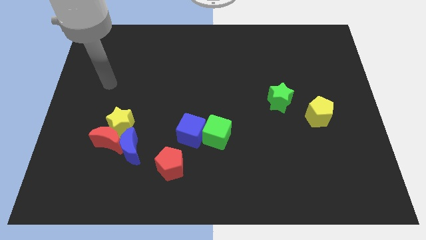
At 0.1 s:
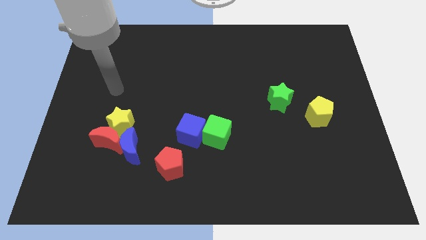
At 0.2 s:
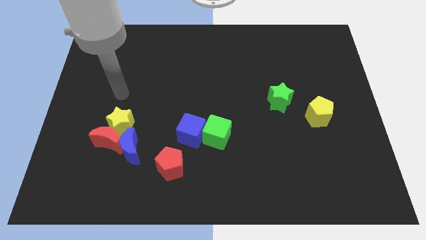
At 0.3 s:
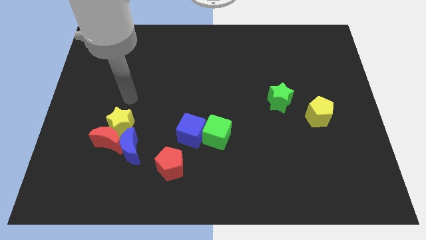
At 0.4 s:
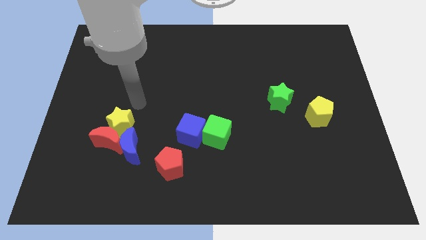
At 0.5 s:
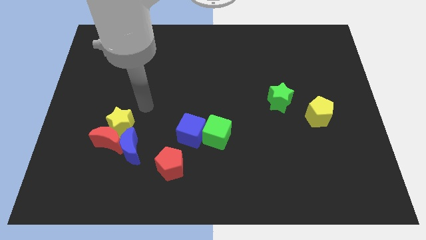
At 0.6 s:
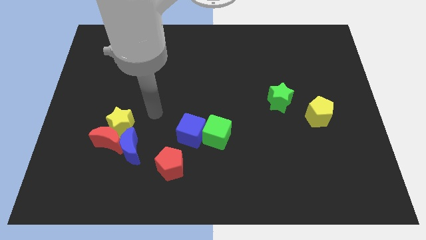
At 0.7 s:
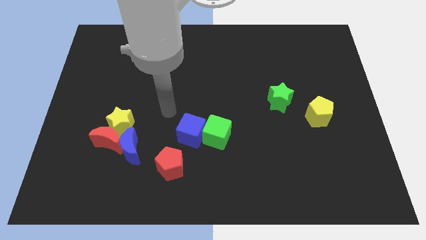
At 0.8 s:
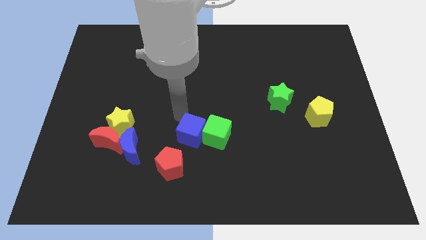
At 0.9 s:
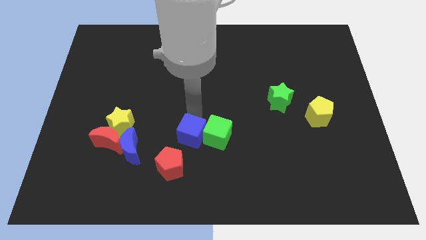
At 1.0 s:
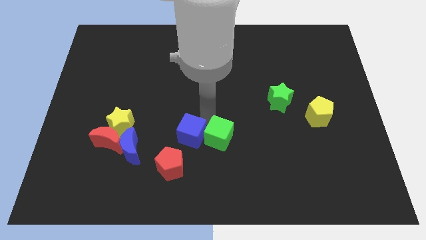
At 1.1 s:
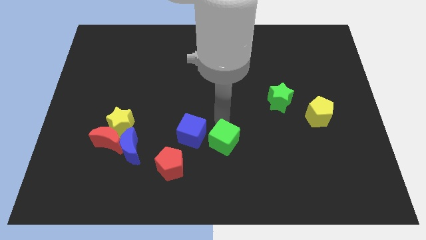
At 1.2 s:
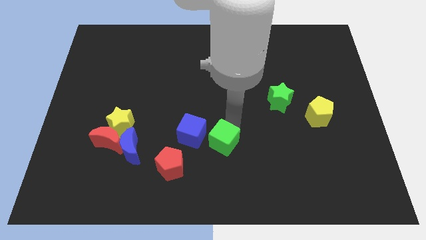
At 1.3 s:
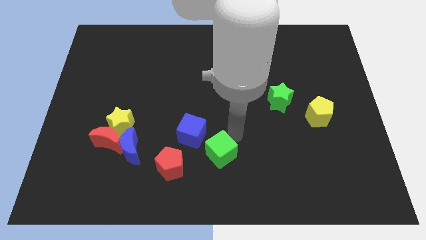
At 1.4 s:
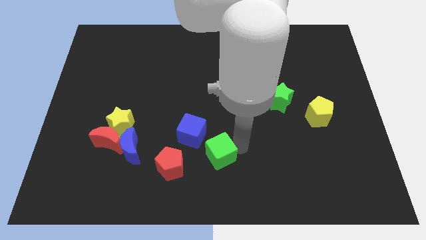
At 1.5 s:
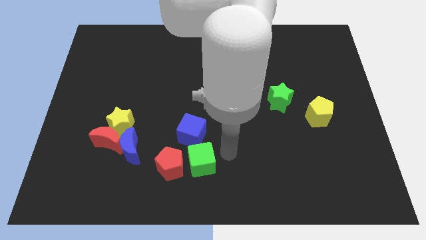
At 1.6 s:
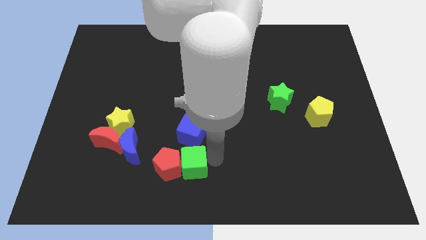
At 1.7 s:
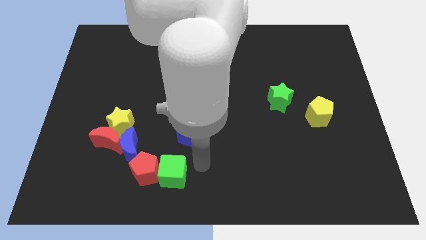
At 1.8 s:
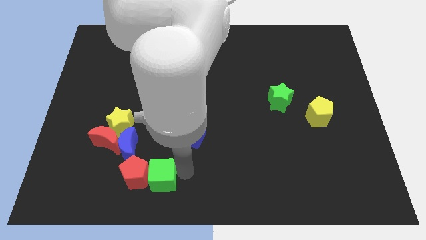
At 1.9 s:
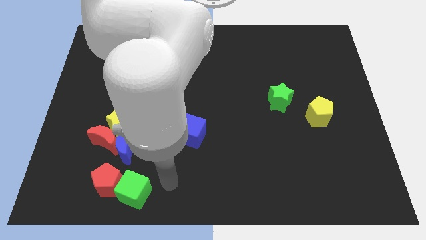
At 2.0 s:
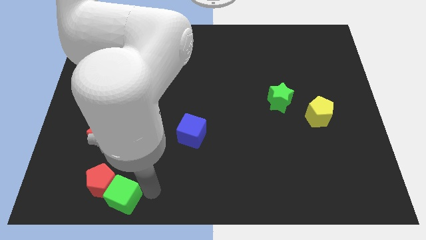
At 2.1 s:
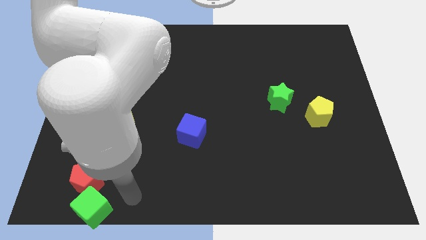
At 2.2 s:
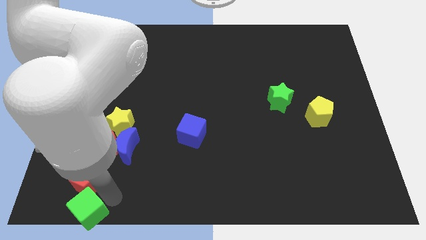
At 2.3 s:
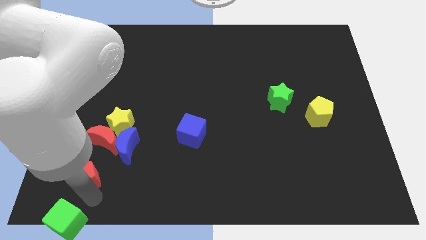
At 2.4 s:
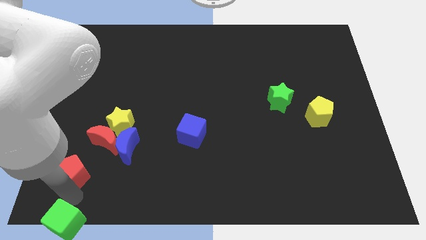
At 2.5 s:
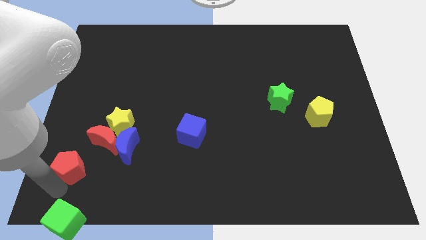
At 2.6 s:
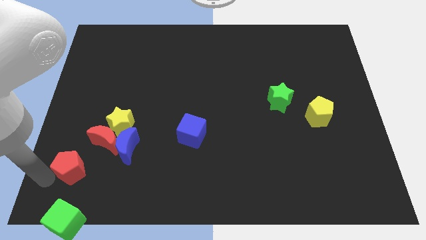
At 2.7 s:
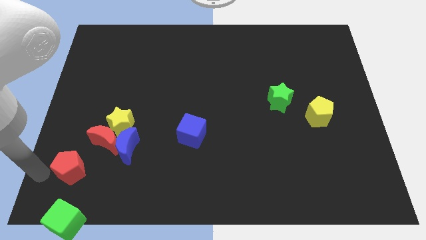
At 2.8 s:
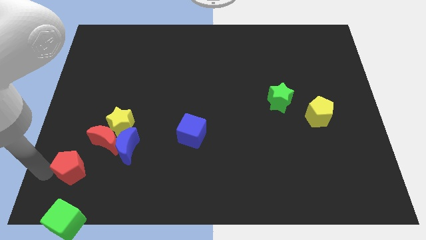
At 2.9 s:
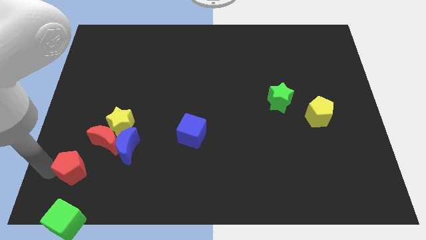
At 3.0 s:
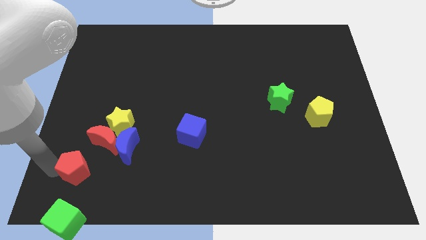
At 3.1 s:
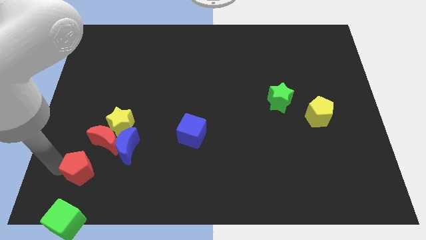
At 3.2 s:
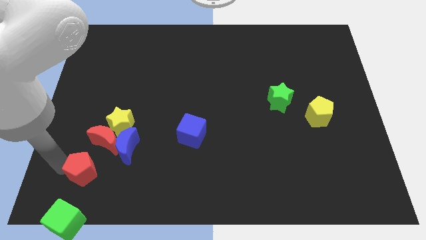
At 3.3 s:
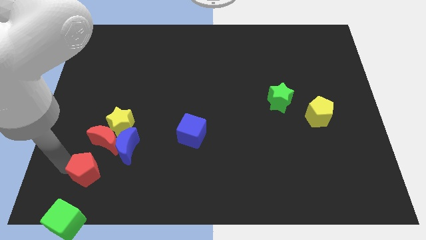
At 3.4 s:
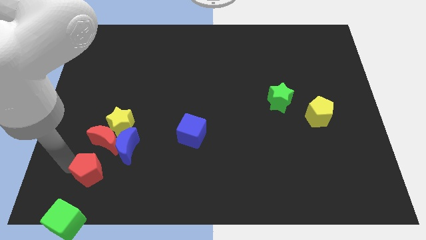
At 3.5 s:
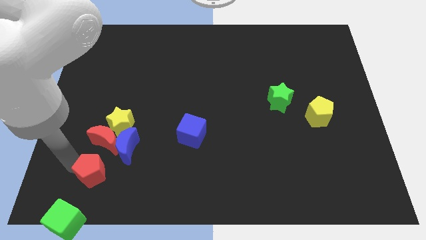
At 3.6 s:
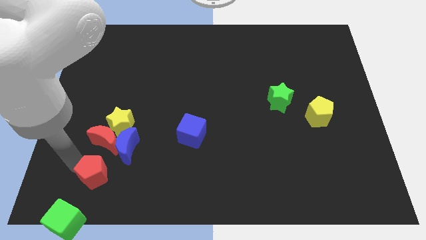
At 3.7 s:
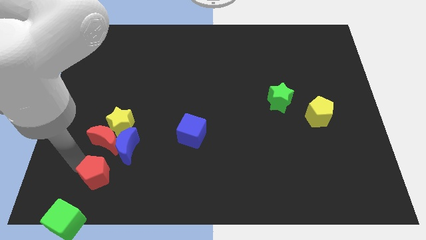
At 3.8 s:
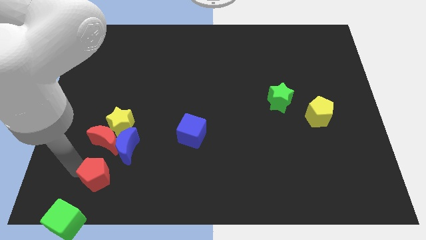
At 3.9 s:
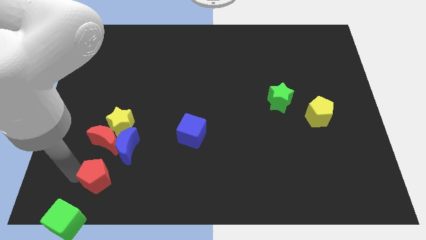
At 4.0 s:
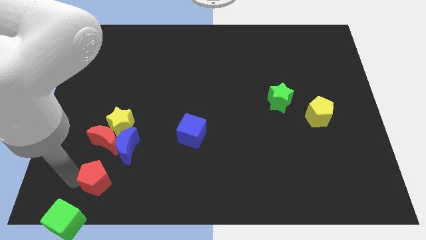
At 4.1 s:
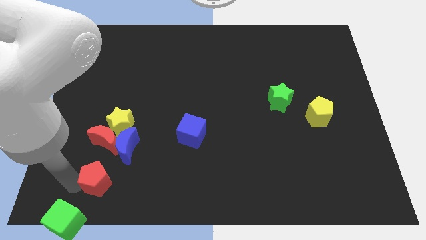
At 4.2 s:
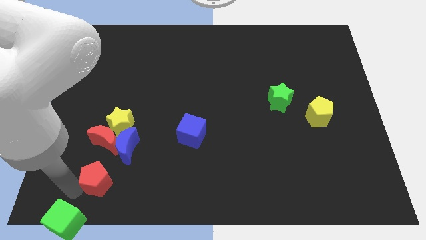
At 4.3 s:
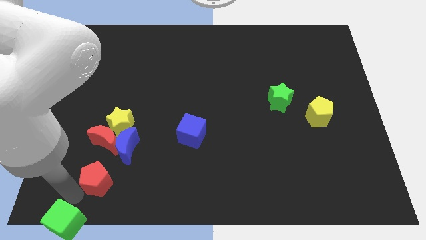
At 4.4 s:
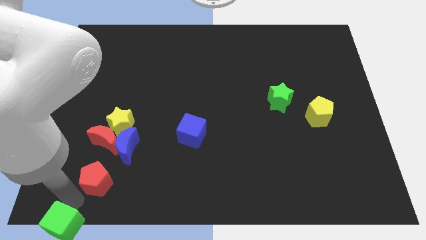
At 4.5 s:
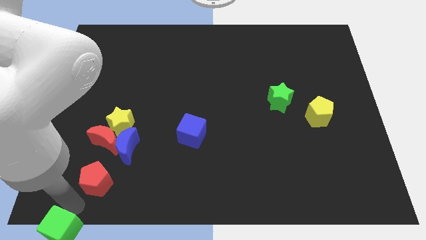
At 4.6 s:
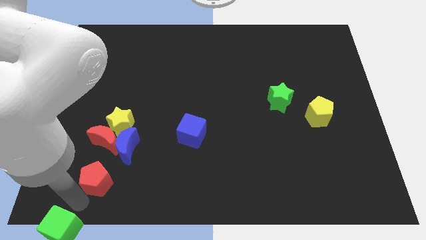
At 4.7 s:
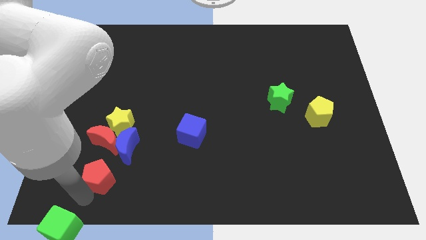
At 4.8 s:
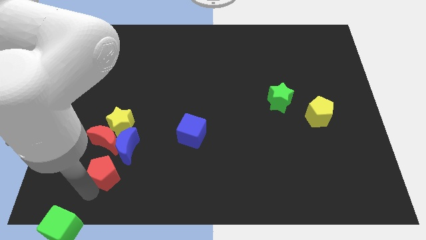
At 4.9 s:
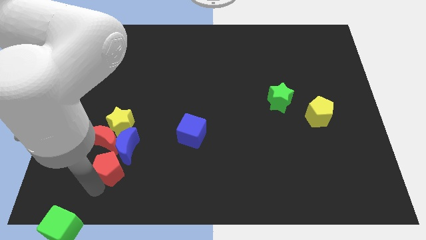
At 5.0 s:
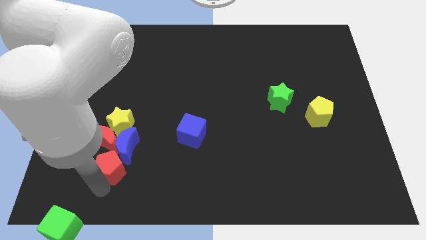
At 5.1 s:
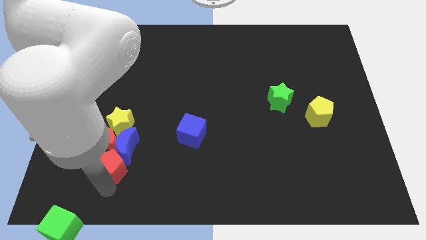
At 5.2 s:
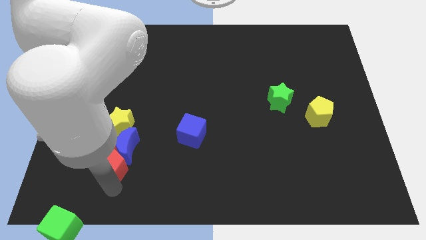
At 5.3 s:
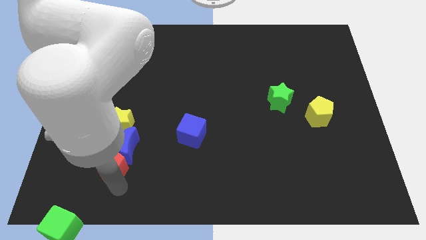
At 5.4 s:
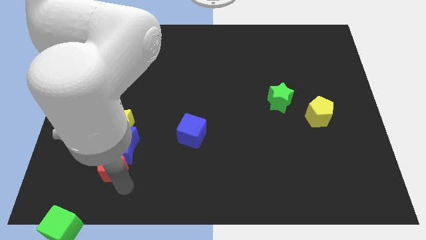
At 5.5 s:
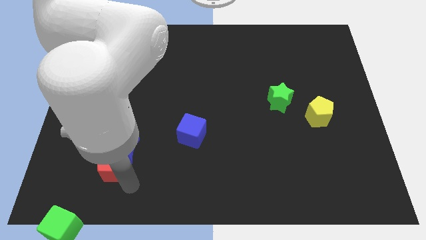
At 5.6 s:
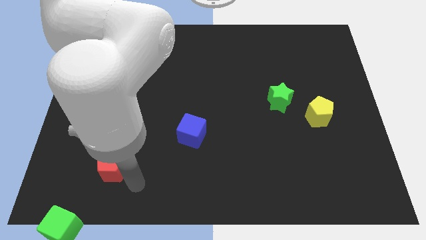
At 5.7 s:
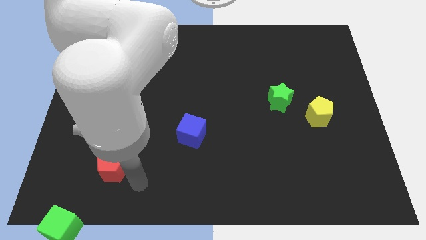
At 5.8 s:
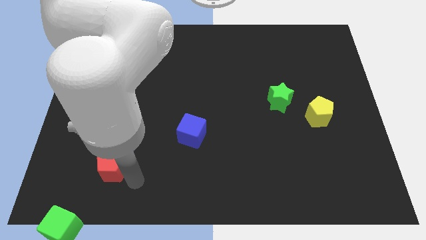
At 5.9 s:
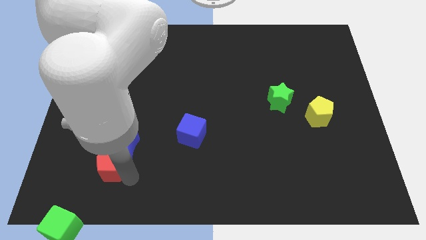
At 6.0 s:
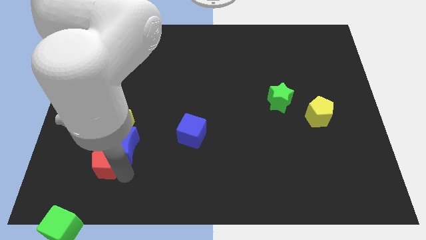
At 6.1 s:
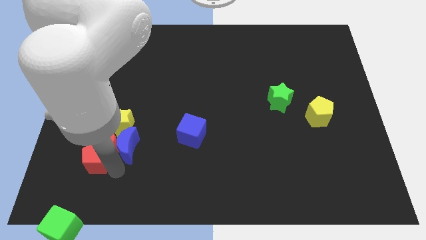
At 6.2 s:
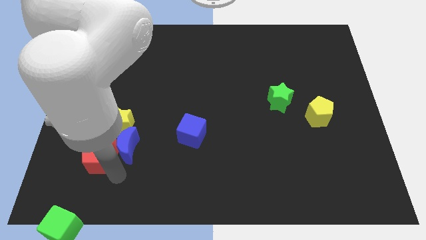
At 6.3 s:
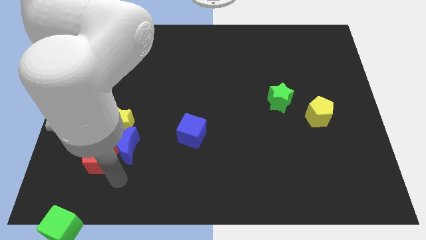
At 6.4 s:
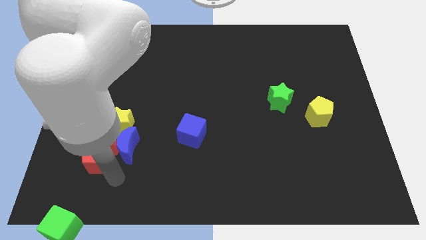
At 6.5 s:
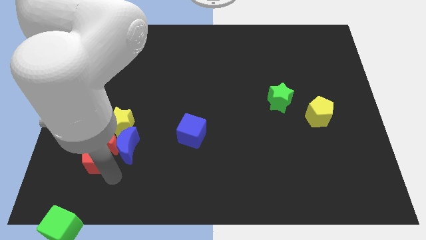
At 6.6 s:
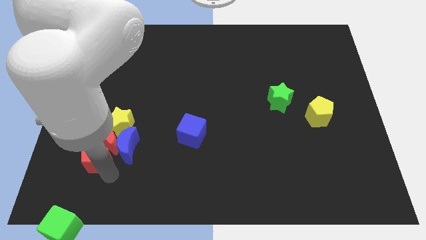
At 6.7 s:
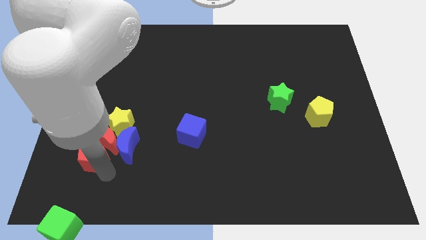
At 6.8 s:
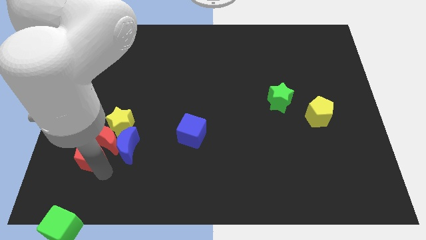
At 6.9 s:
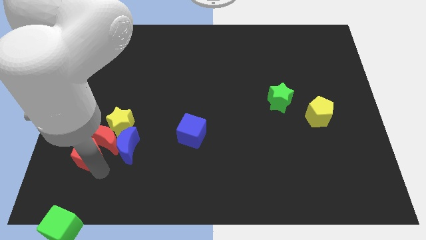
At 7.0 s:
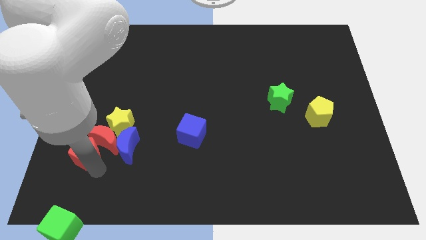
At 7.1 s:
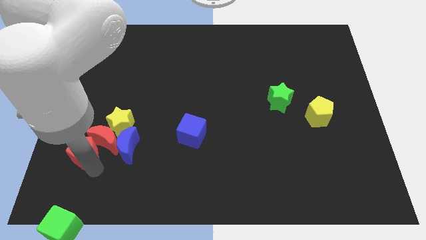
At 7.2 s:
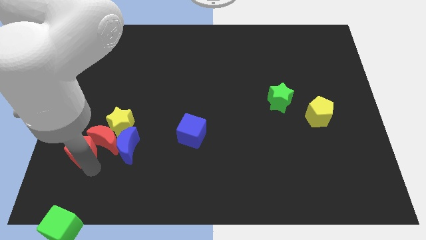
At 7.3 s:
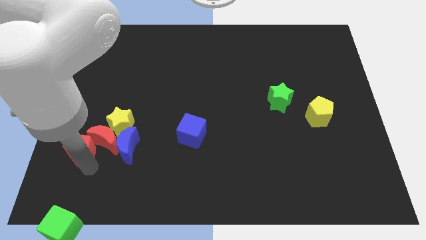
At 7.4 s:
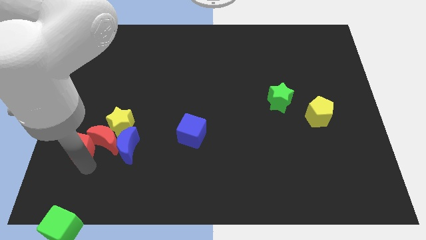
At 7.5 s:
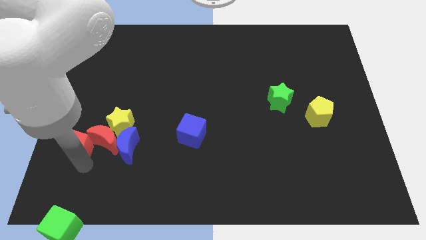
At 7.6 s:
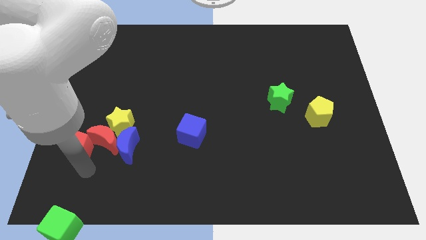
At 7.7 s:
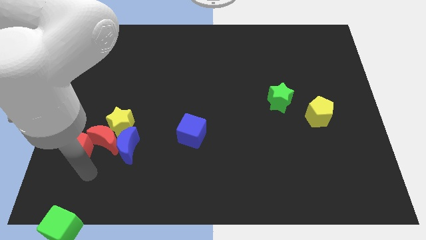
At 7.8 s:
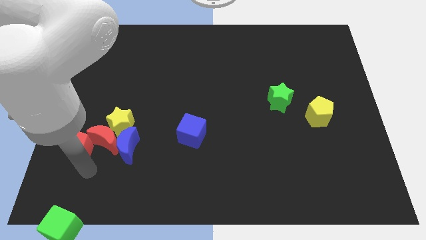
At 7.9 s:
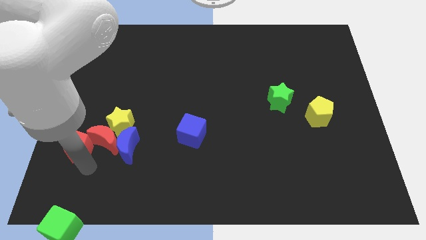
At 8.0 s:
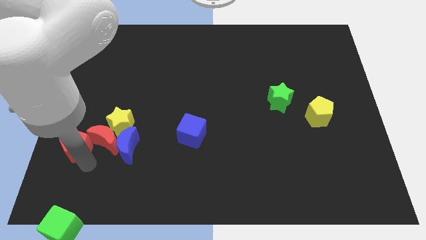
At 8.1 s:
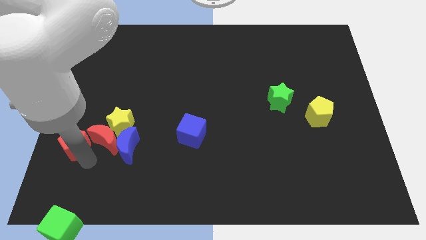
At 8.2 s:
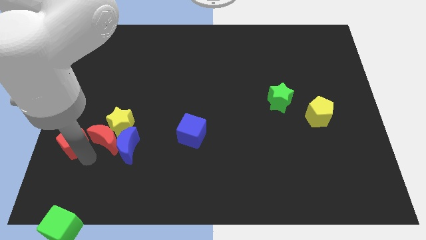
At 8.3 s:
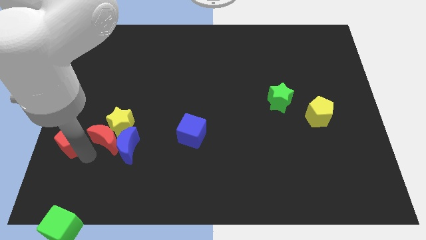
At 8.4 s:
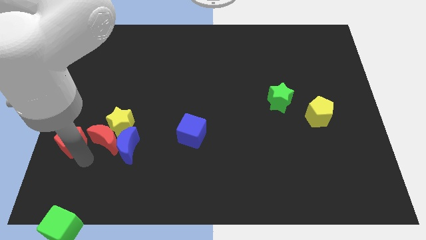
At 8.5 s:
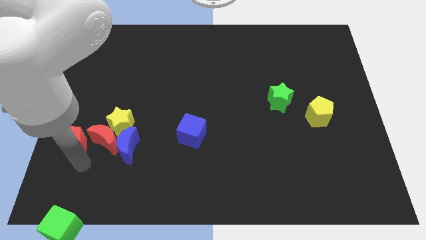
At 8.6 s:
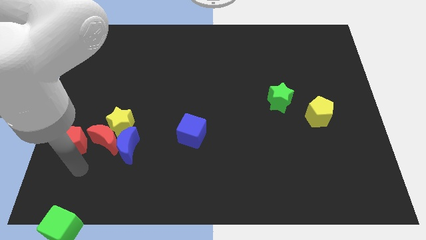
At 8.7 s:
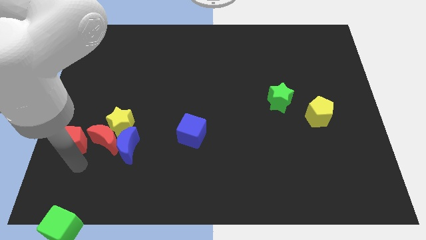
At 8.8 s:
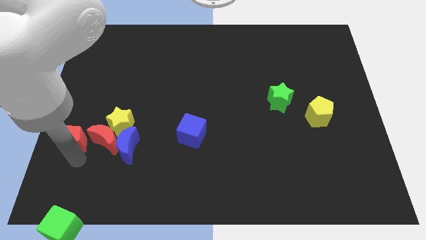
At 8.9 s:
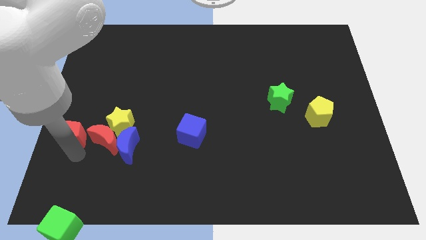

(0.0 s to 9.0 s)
put the red pentagon to the center left
